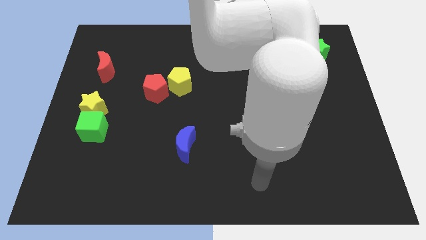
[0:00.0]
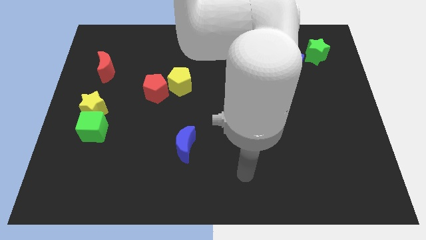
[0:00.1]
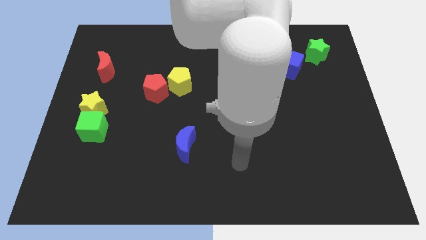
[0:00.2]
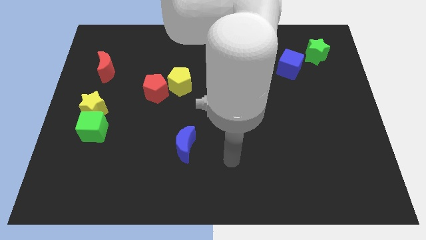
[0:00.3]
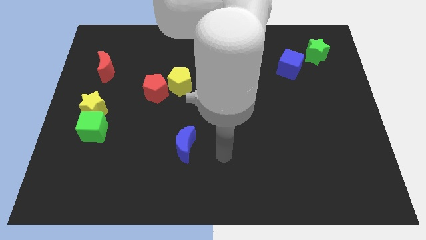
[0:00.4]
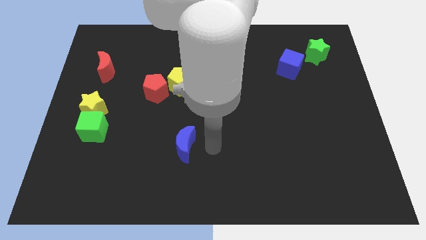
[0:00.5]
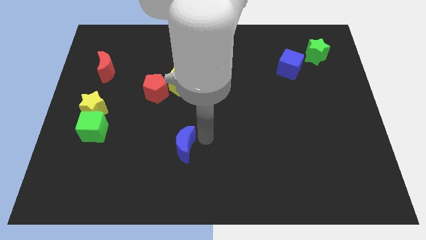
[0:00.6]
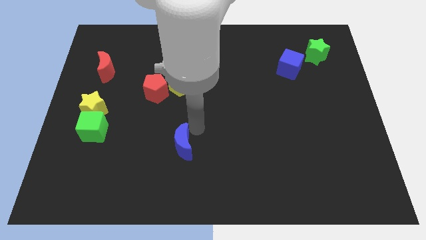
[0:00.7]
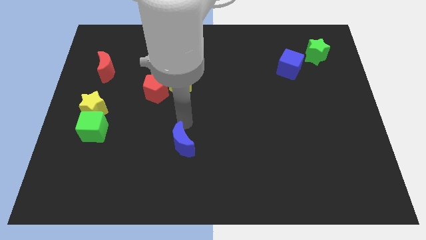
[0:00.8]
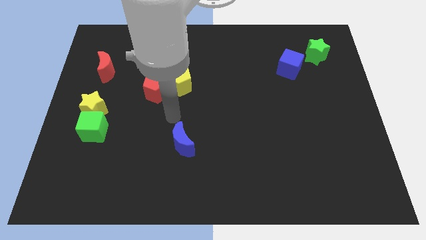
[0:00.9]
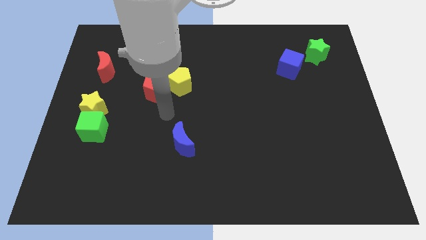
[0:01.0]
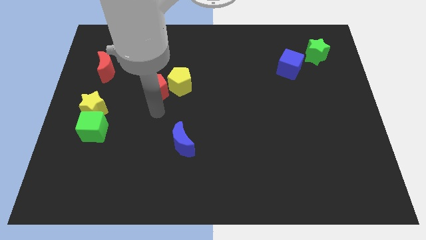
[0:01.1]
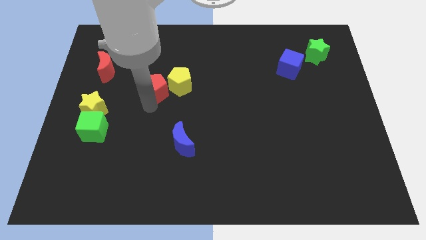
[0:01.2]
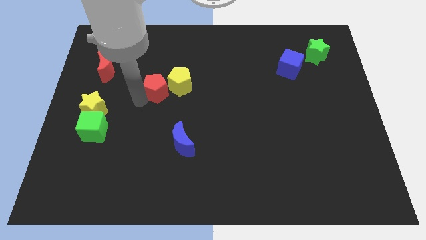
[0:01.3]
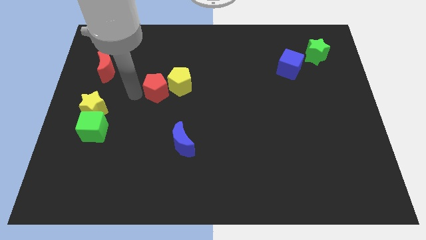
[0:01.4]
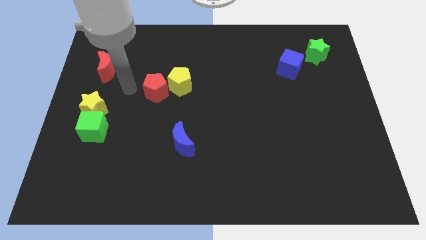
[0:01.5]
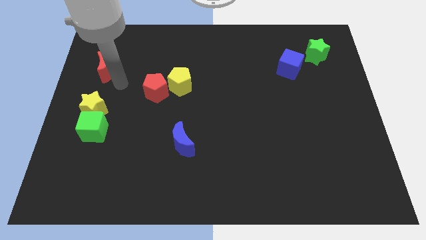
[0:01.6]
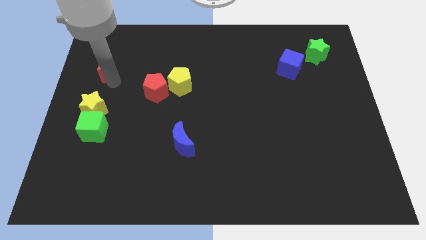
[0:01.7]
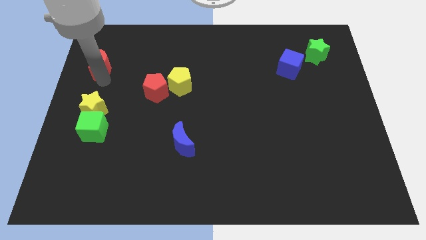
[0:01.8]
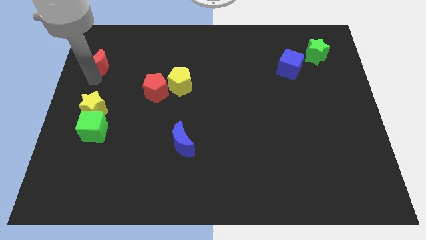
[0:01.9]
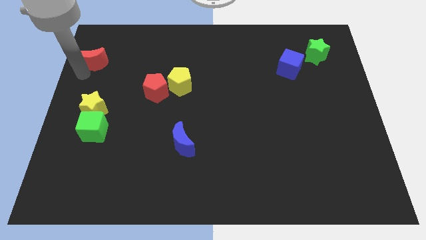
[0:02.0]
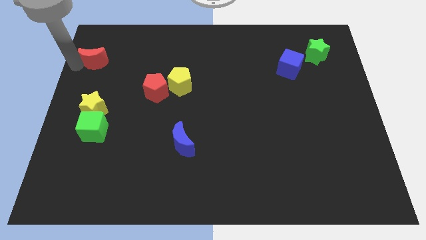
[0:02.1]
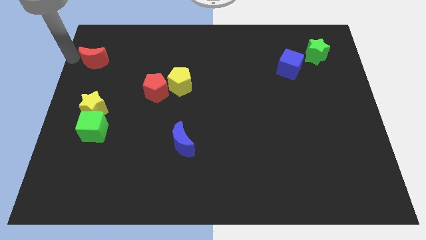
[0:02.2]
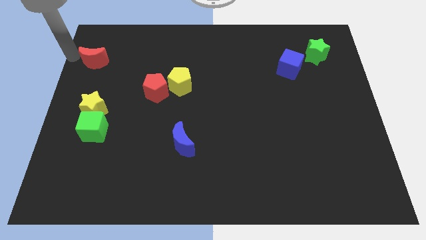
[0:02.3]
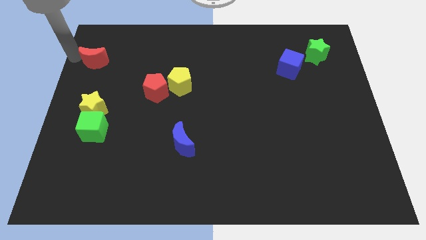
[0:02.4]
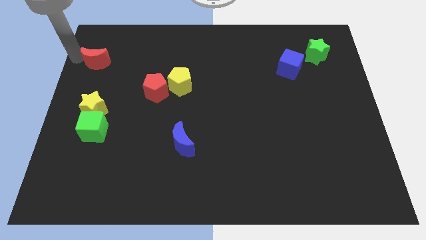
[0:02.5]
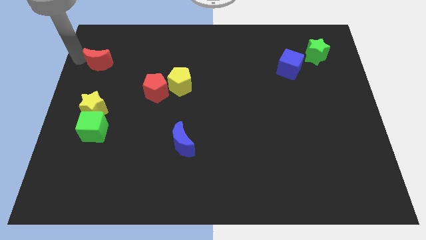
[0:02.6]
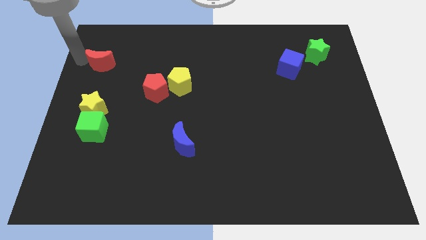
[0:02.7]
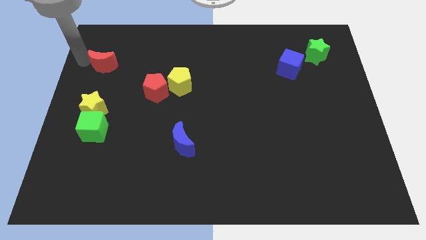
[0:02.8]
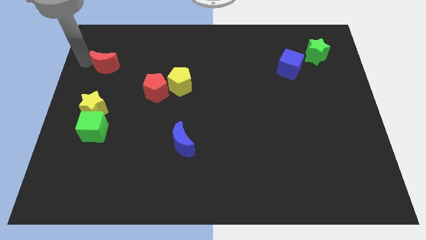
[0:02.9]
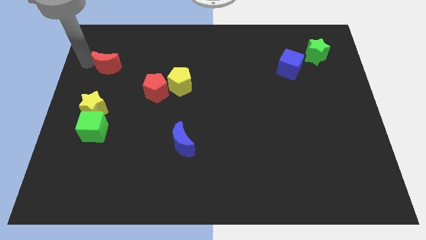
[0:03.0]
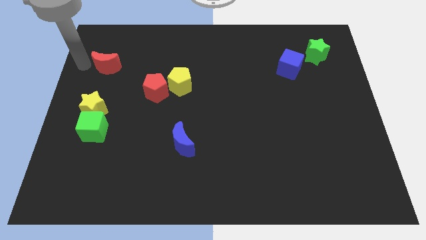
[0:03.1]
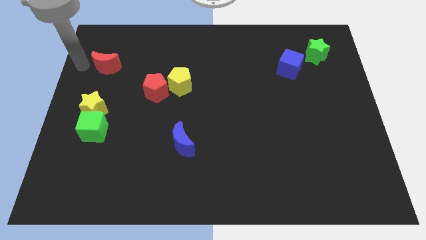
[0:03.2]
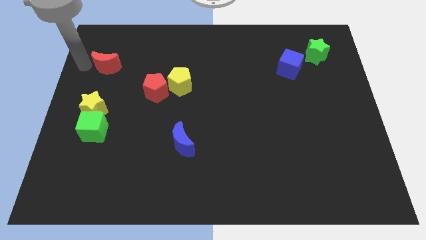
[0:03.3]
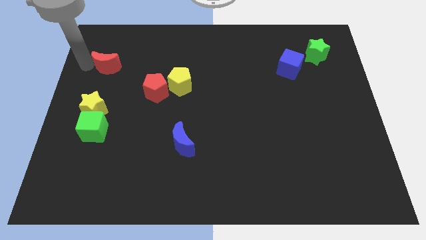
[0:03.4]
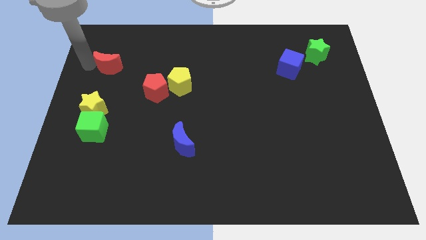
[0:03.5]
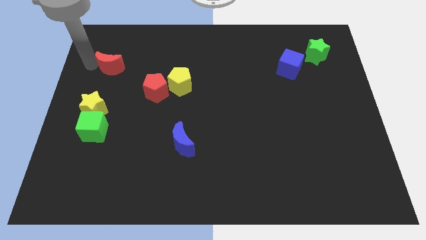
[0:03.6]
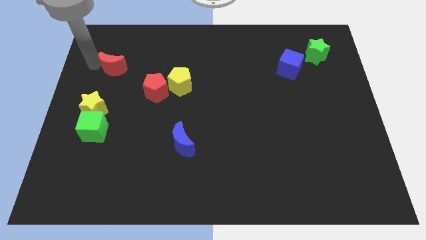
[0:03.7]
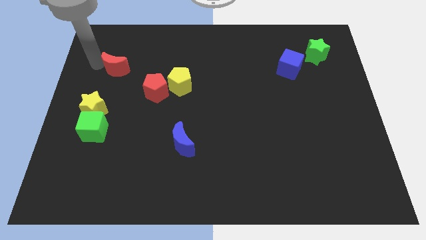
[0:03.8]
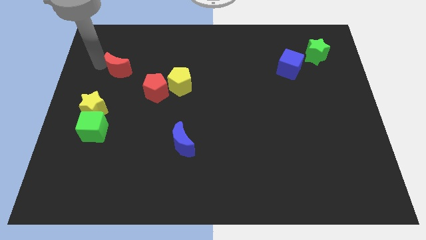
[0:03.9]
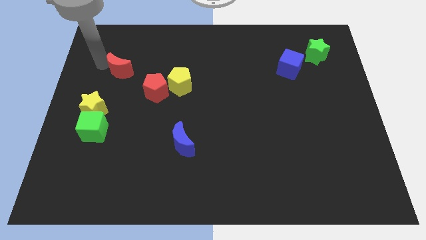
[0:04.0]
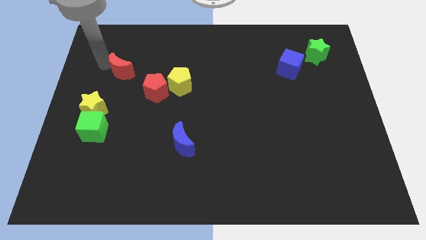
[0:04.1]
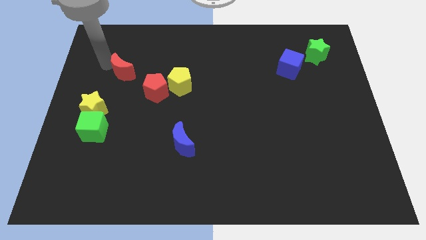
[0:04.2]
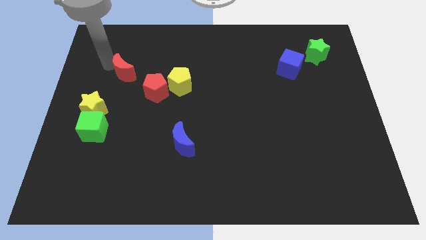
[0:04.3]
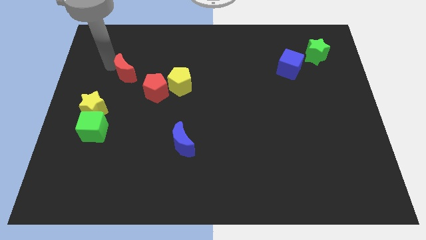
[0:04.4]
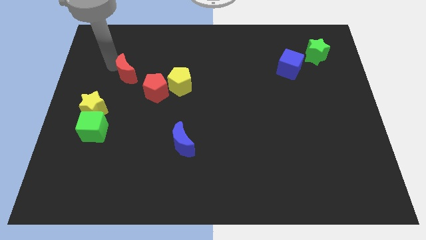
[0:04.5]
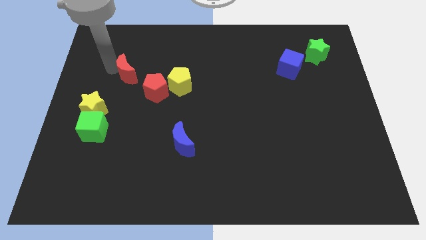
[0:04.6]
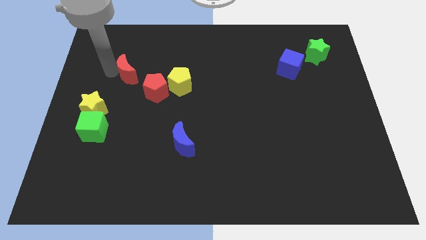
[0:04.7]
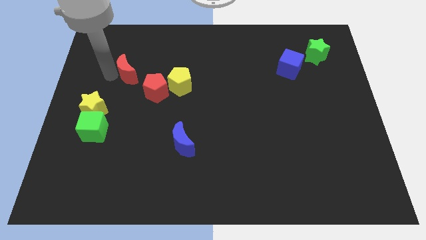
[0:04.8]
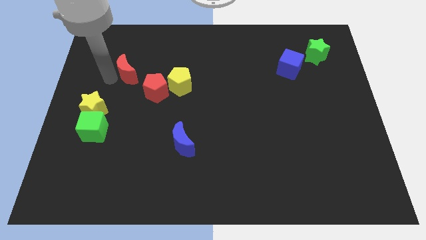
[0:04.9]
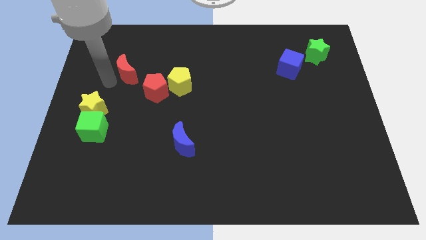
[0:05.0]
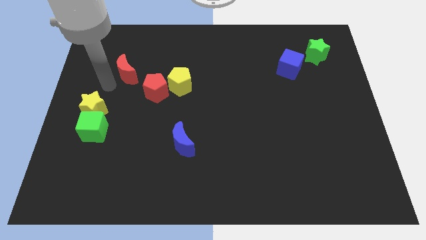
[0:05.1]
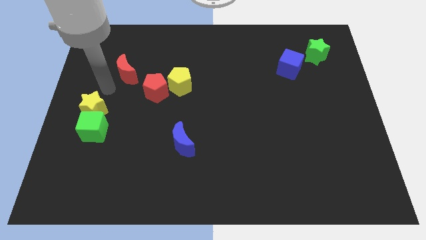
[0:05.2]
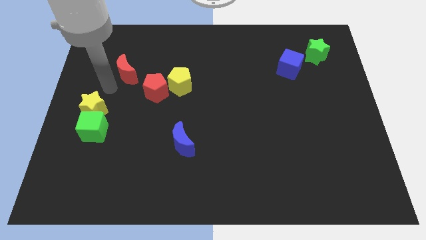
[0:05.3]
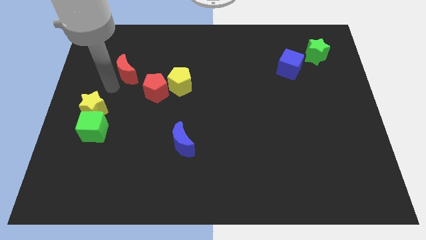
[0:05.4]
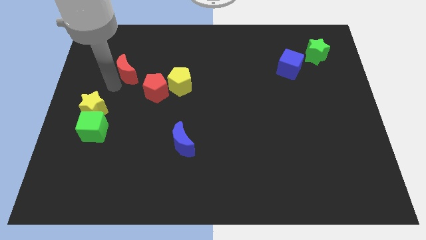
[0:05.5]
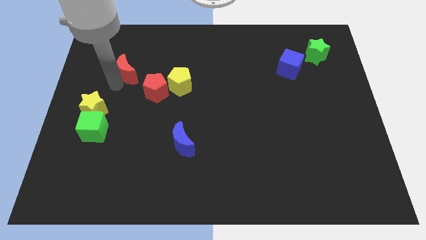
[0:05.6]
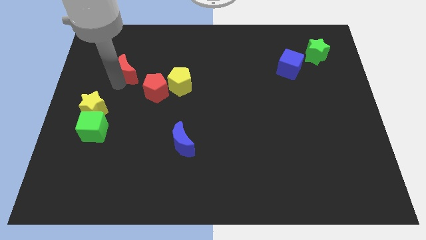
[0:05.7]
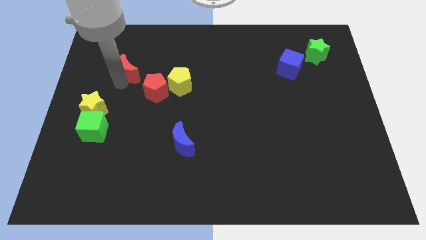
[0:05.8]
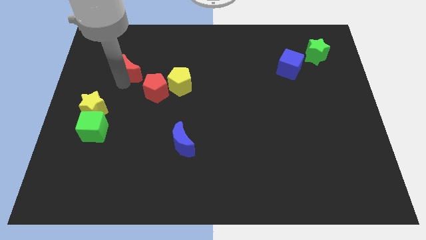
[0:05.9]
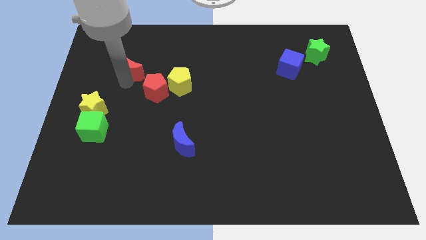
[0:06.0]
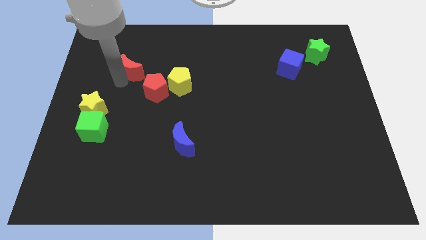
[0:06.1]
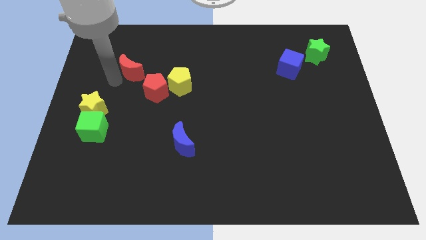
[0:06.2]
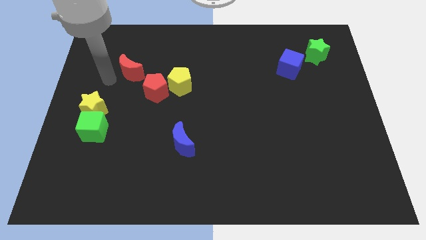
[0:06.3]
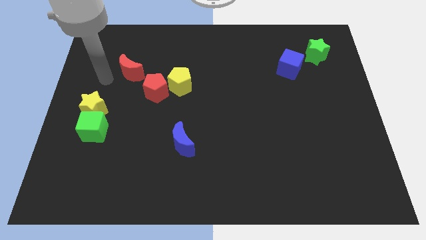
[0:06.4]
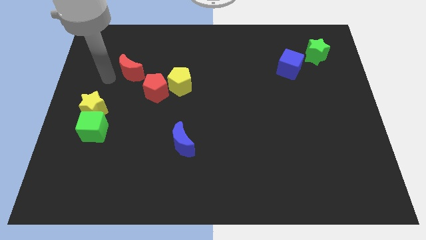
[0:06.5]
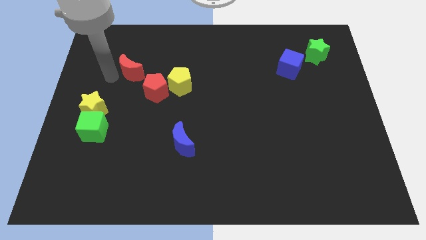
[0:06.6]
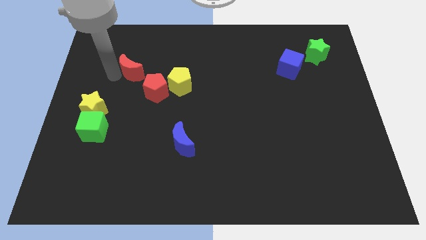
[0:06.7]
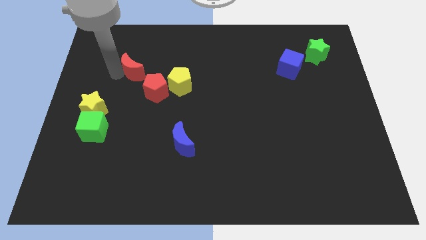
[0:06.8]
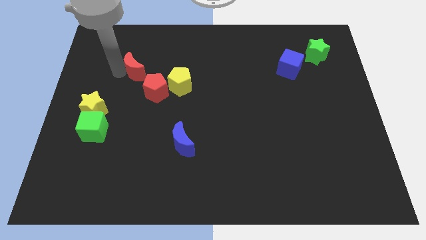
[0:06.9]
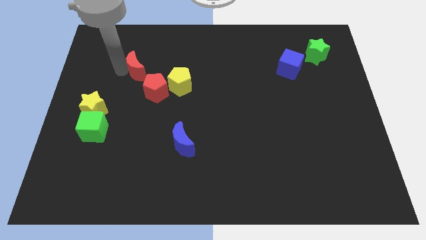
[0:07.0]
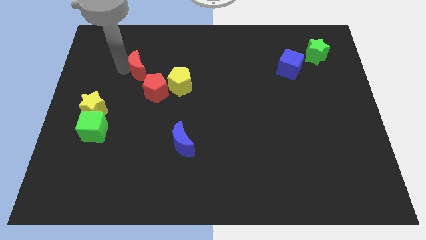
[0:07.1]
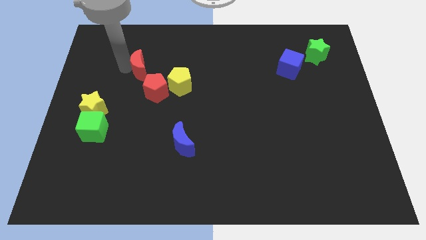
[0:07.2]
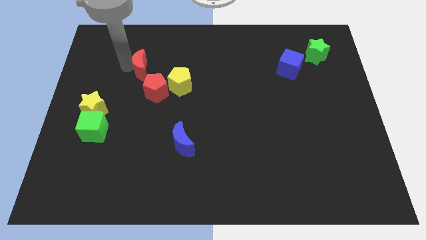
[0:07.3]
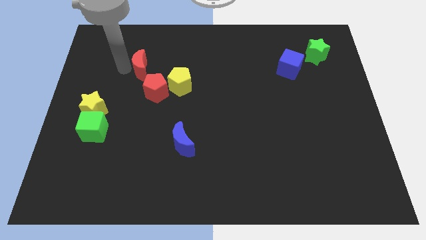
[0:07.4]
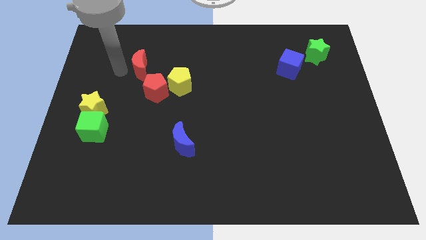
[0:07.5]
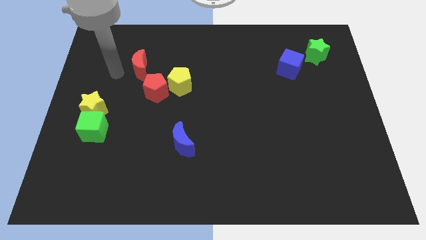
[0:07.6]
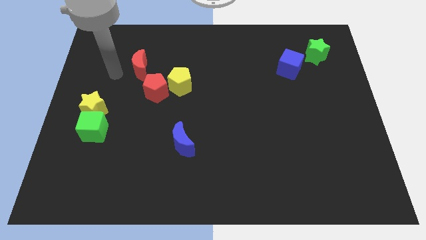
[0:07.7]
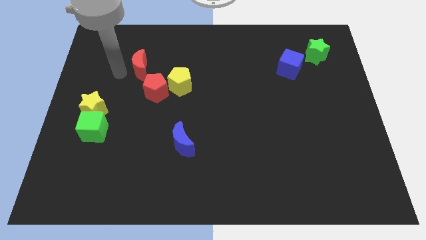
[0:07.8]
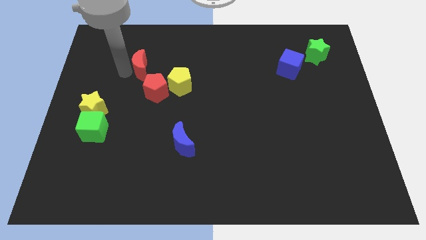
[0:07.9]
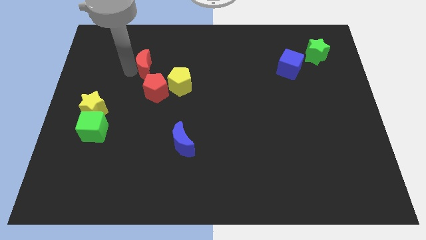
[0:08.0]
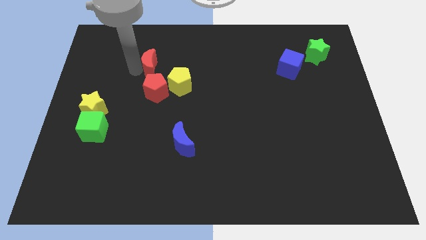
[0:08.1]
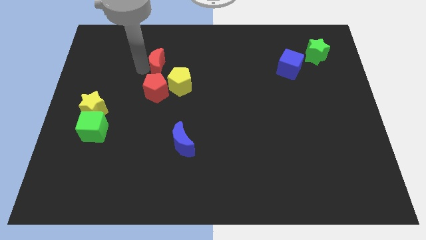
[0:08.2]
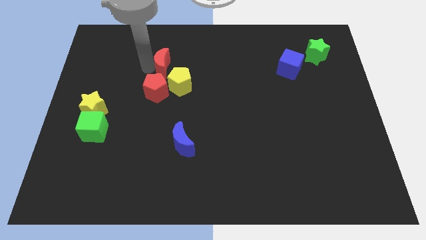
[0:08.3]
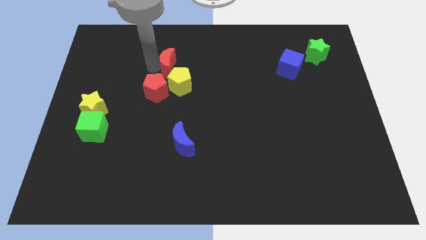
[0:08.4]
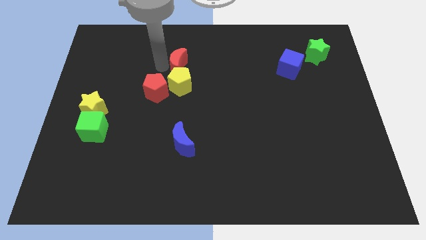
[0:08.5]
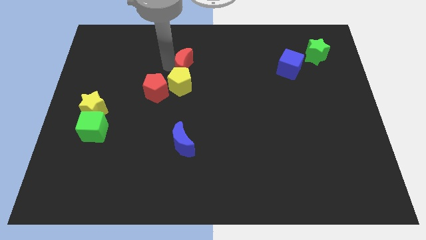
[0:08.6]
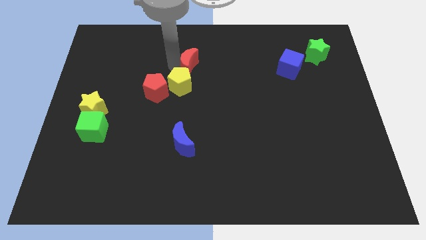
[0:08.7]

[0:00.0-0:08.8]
move the red moon right
